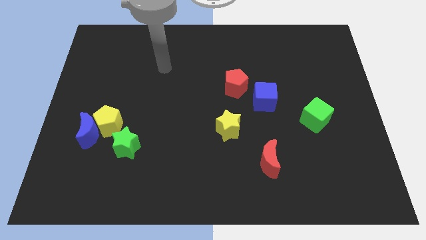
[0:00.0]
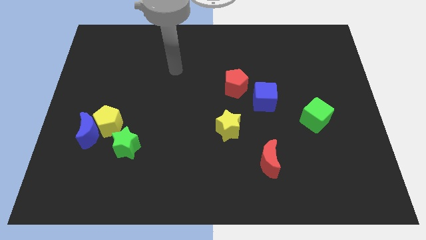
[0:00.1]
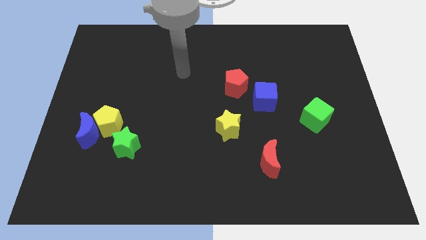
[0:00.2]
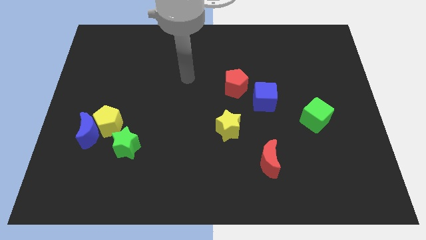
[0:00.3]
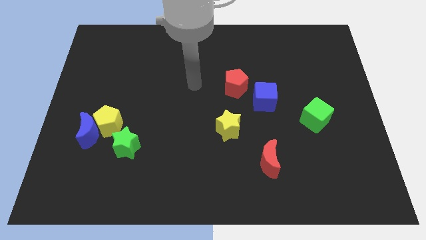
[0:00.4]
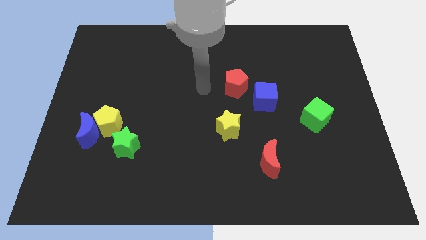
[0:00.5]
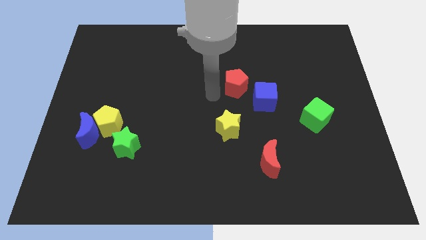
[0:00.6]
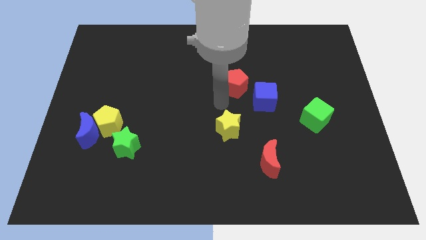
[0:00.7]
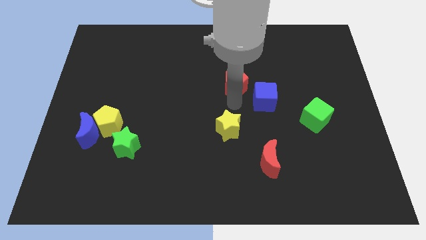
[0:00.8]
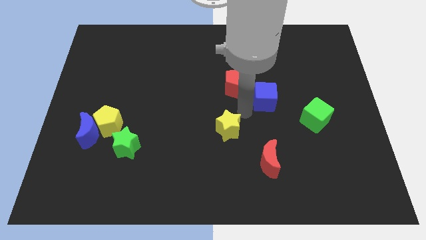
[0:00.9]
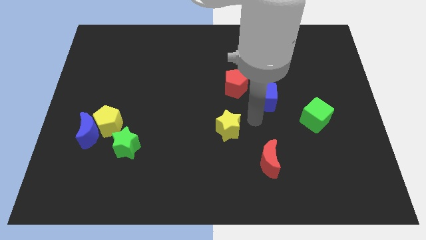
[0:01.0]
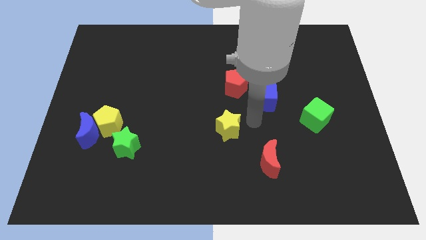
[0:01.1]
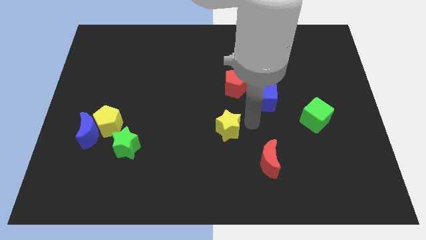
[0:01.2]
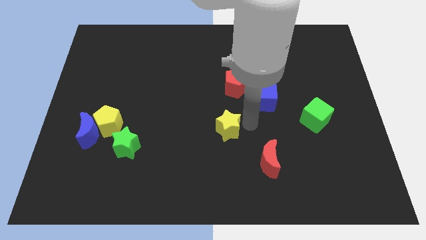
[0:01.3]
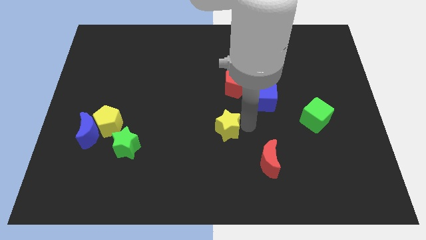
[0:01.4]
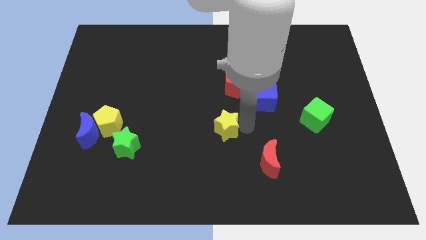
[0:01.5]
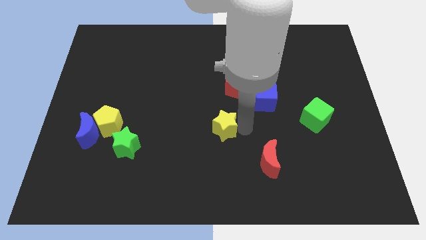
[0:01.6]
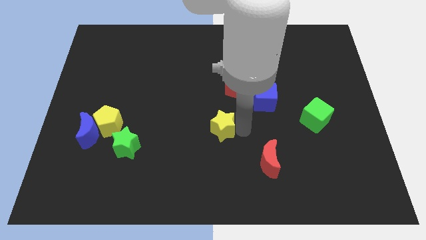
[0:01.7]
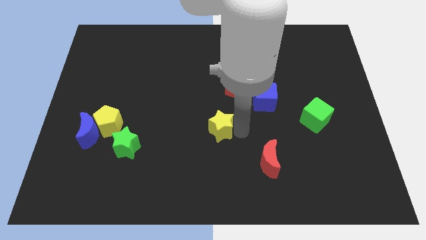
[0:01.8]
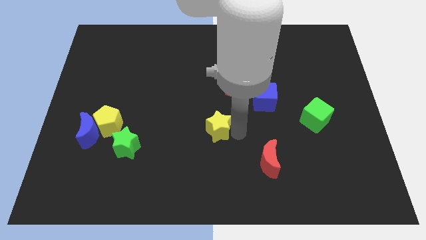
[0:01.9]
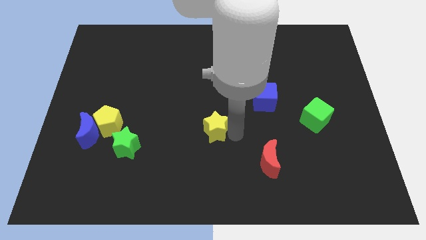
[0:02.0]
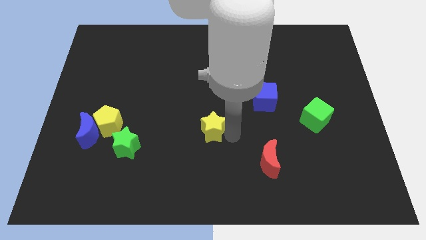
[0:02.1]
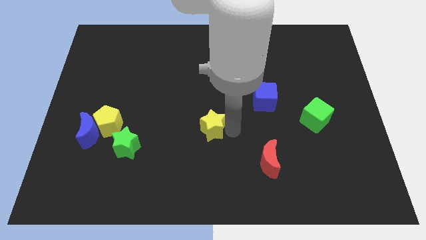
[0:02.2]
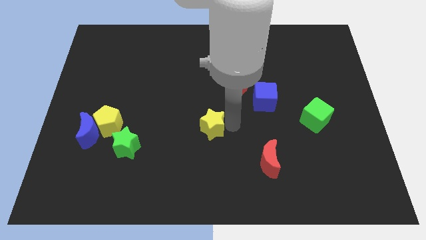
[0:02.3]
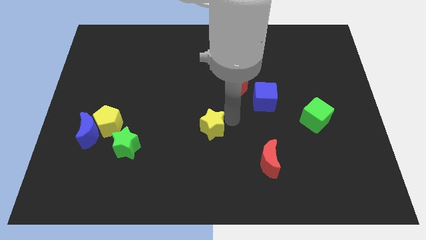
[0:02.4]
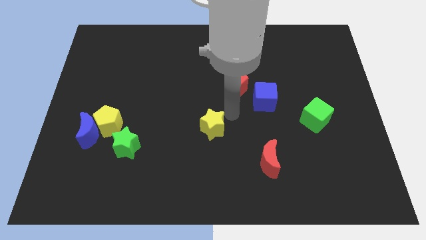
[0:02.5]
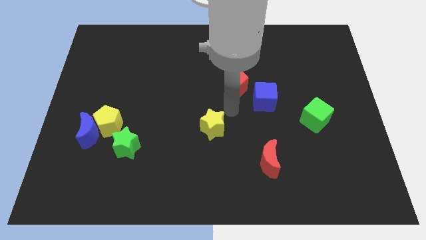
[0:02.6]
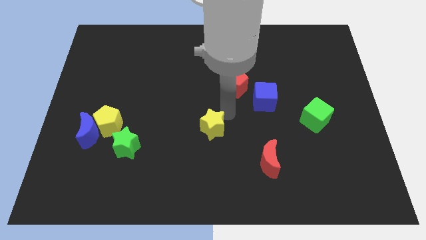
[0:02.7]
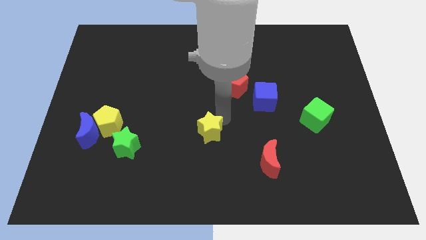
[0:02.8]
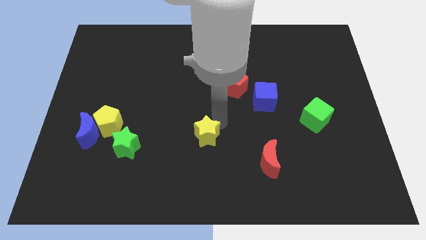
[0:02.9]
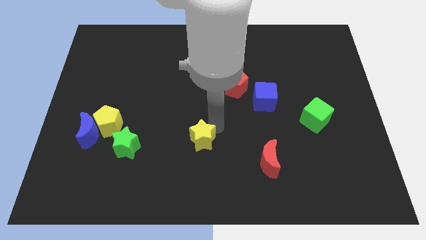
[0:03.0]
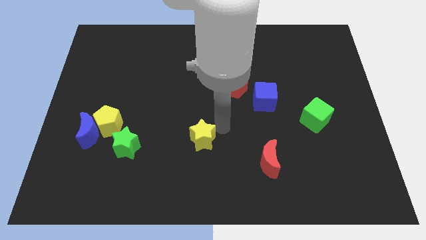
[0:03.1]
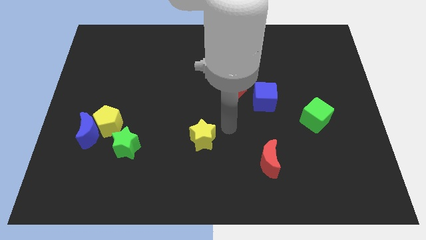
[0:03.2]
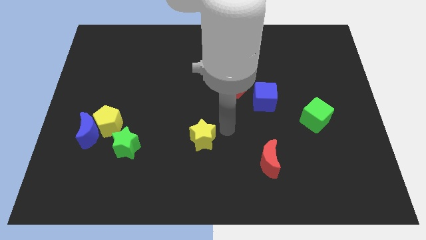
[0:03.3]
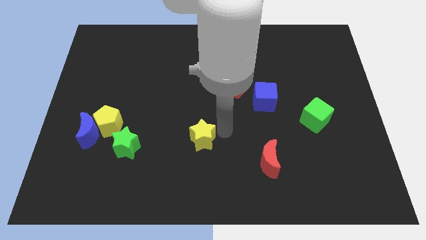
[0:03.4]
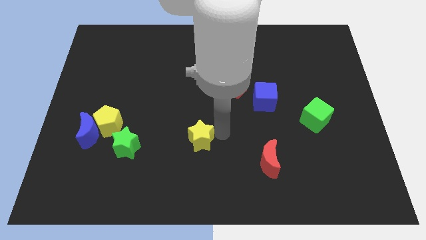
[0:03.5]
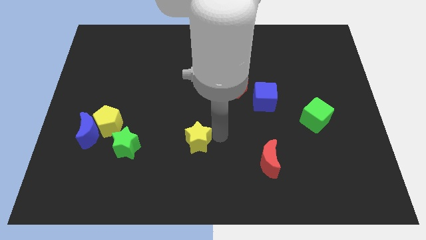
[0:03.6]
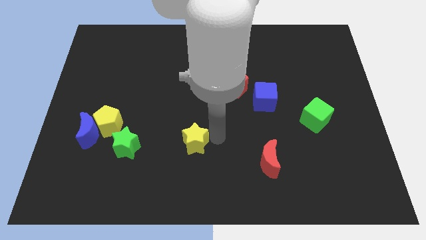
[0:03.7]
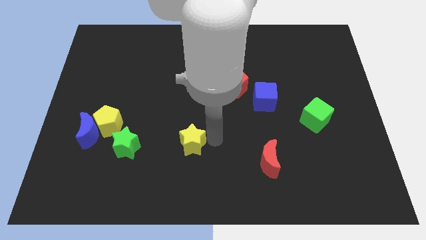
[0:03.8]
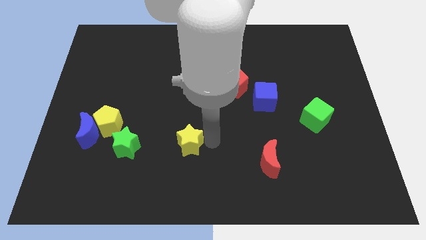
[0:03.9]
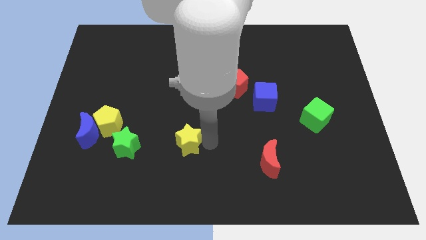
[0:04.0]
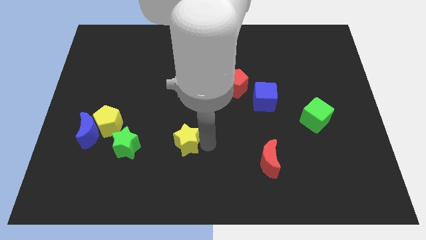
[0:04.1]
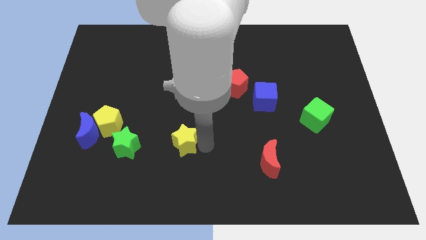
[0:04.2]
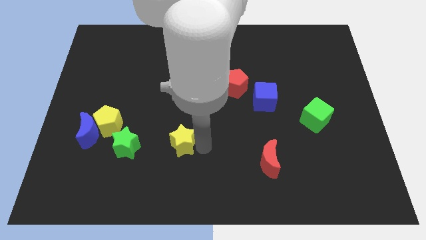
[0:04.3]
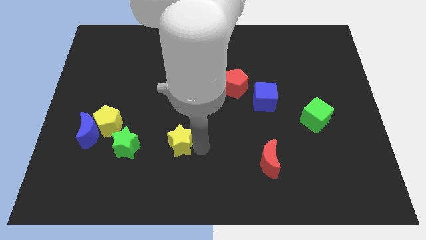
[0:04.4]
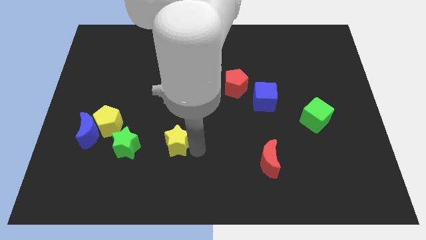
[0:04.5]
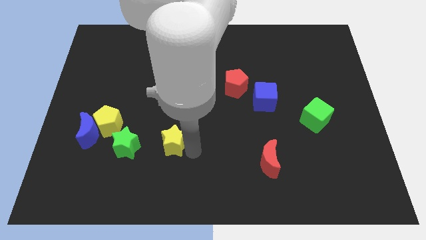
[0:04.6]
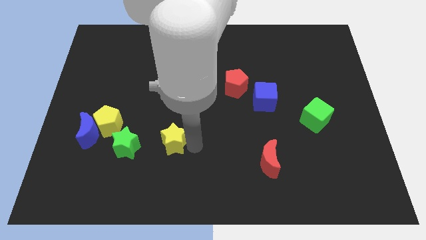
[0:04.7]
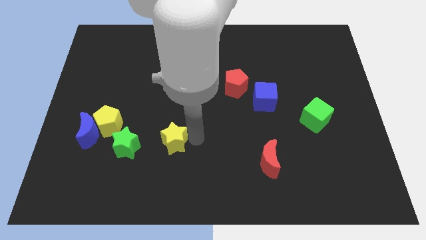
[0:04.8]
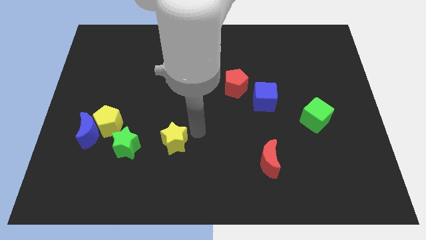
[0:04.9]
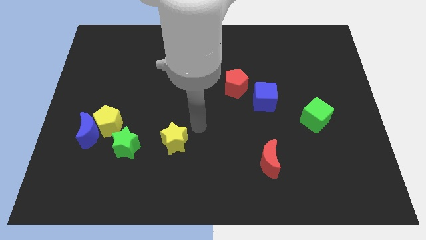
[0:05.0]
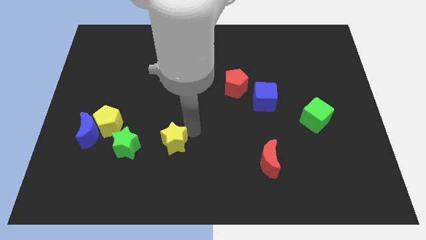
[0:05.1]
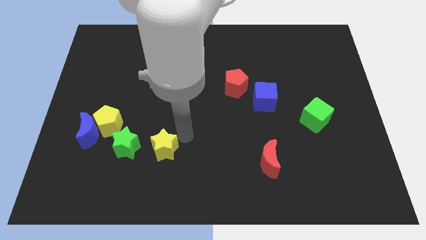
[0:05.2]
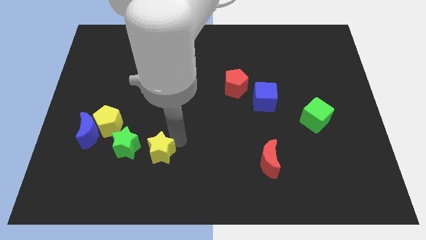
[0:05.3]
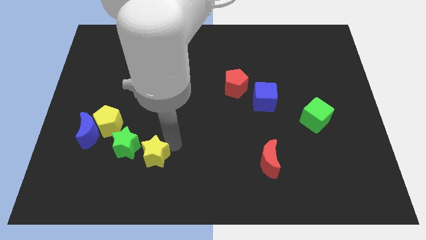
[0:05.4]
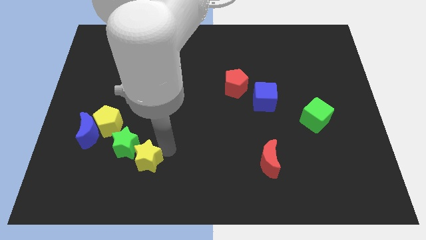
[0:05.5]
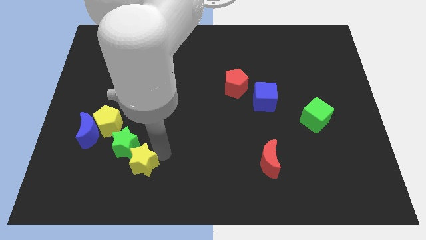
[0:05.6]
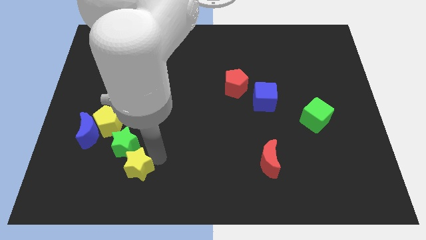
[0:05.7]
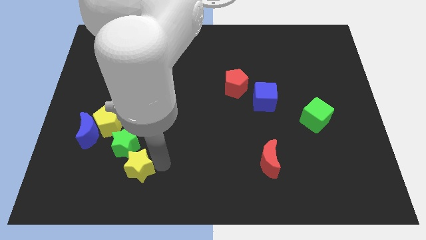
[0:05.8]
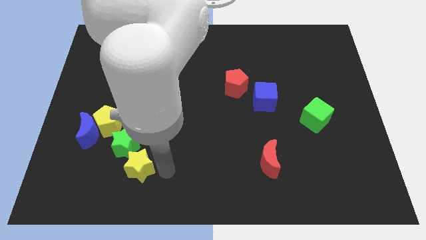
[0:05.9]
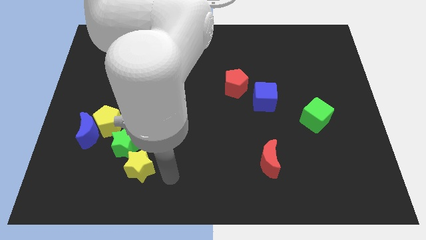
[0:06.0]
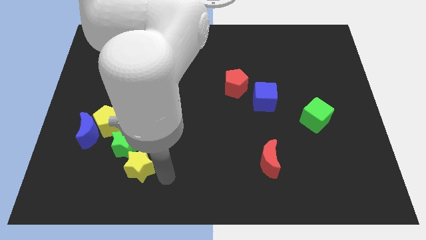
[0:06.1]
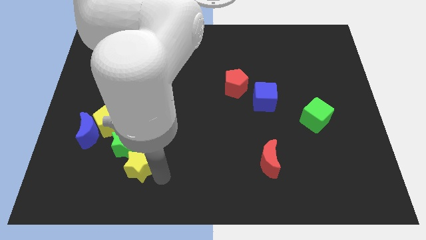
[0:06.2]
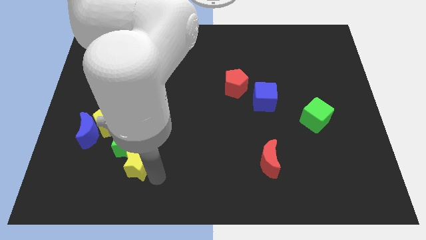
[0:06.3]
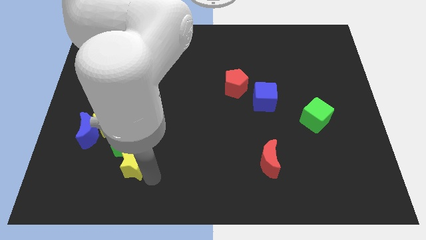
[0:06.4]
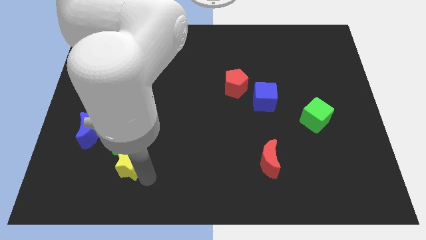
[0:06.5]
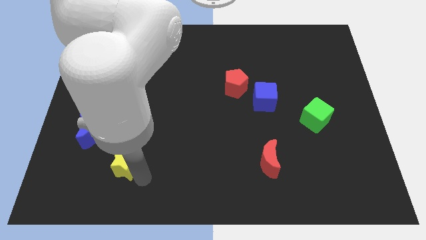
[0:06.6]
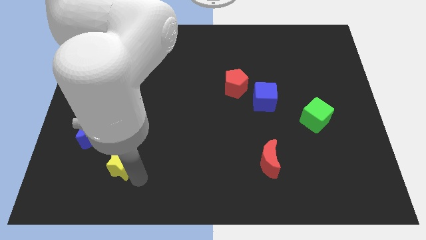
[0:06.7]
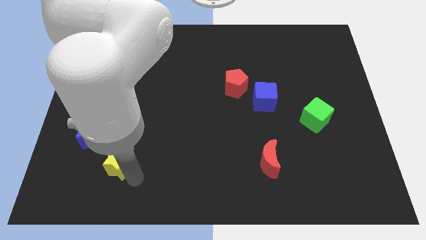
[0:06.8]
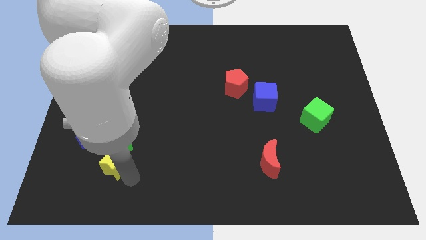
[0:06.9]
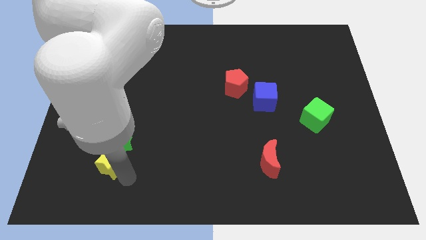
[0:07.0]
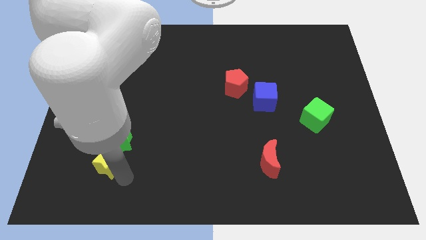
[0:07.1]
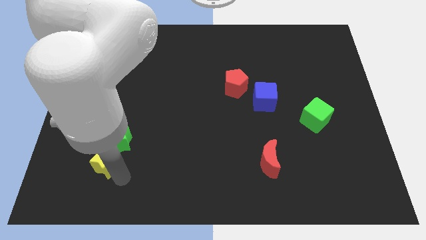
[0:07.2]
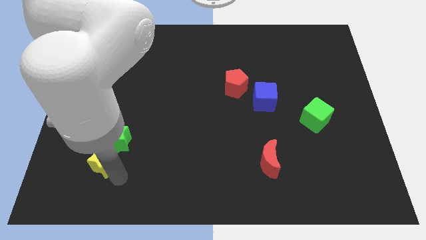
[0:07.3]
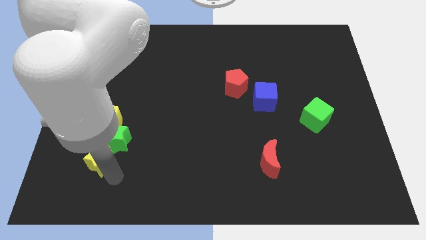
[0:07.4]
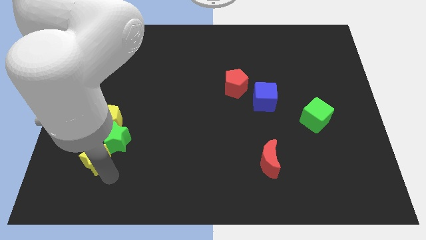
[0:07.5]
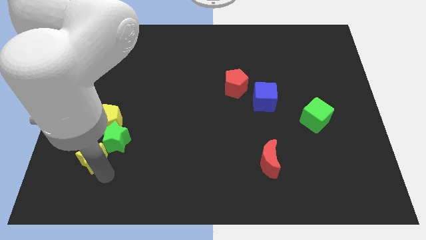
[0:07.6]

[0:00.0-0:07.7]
push the yellow star to the left side of the green star
